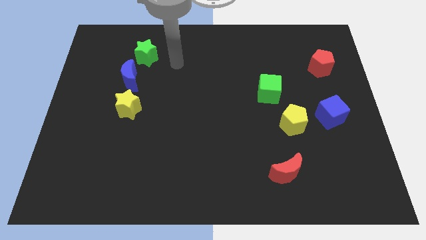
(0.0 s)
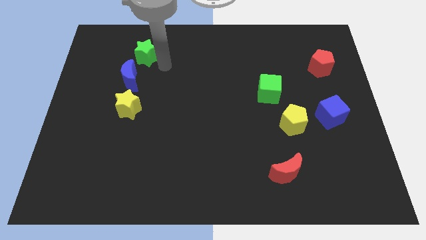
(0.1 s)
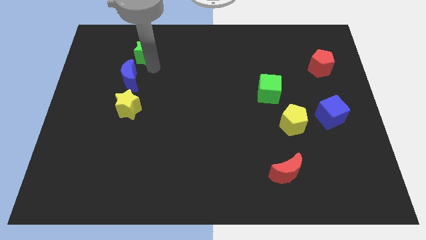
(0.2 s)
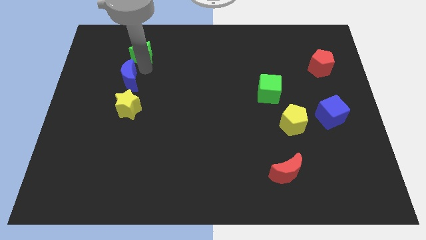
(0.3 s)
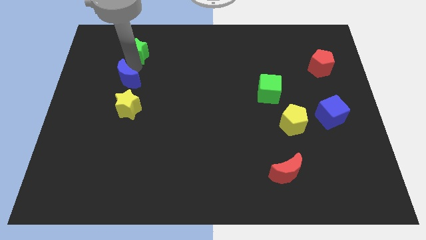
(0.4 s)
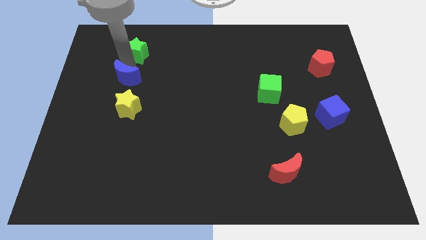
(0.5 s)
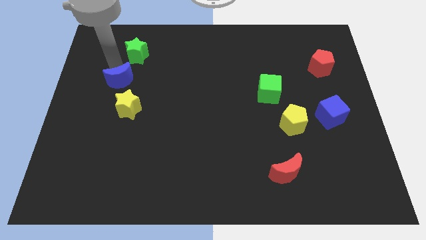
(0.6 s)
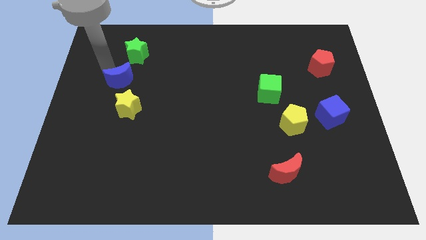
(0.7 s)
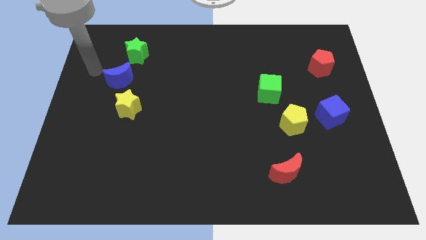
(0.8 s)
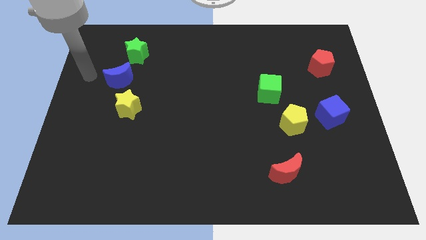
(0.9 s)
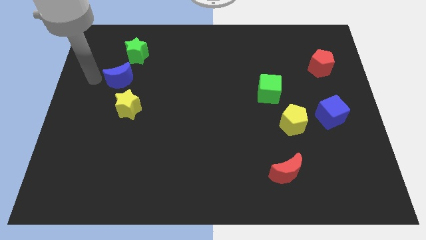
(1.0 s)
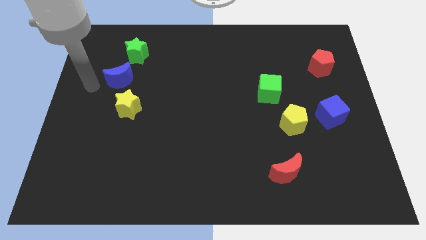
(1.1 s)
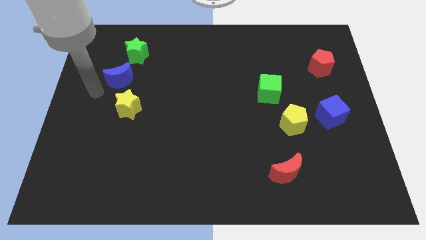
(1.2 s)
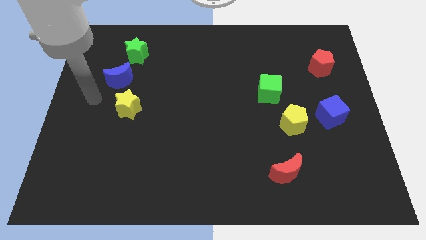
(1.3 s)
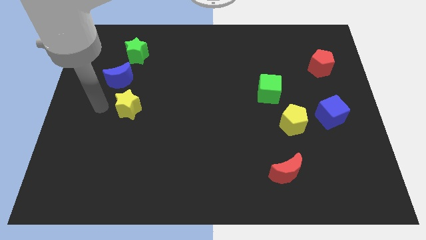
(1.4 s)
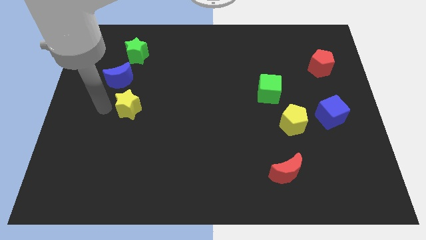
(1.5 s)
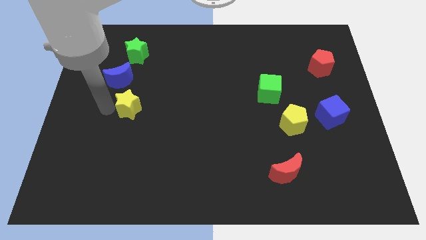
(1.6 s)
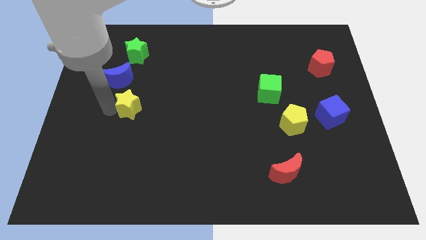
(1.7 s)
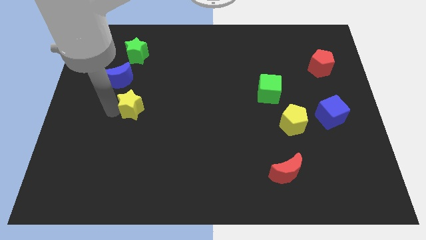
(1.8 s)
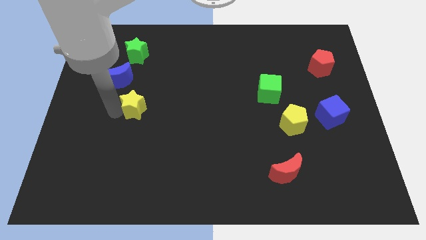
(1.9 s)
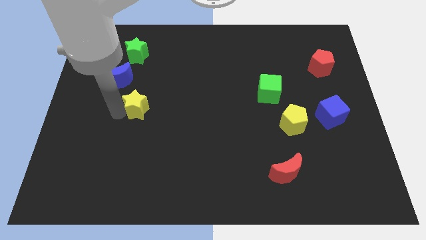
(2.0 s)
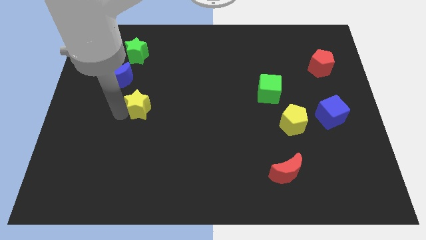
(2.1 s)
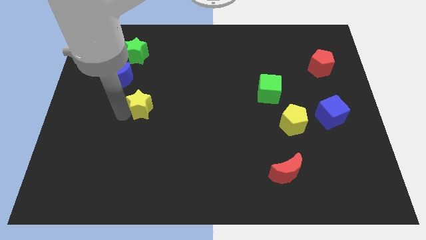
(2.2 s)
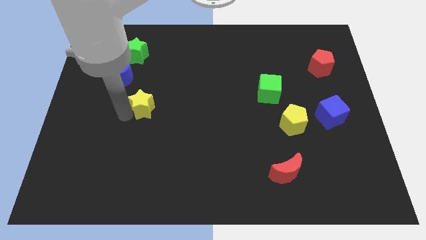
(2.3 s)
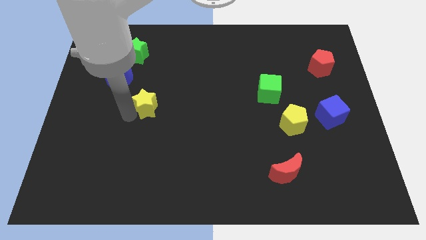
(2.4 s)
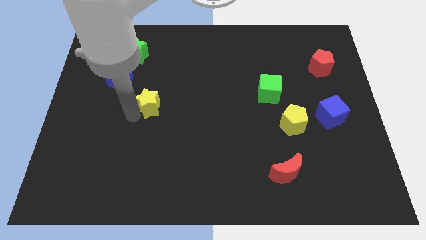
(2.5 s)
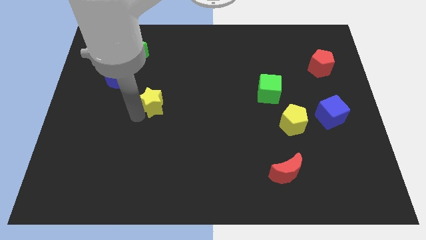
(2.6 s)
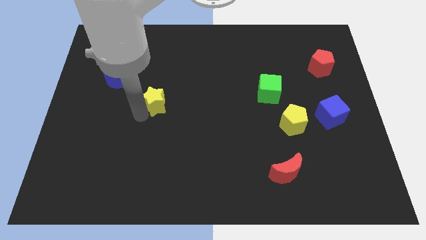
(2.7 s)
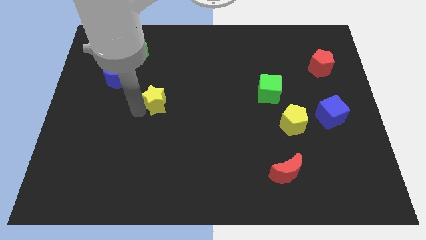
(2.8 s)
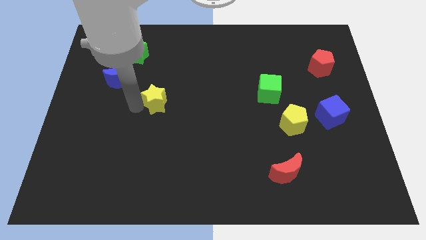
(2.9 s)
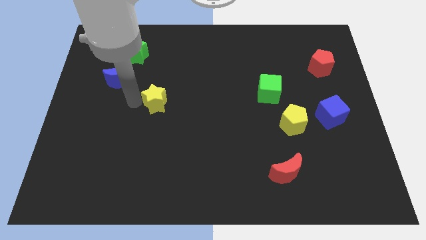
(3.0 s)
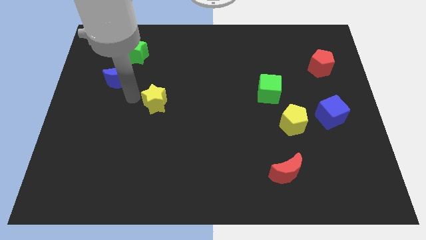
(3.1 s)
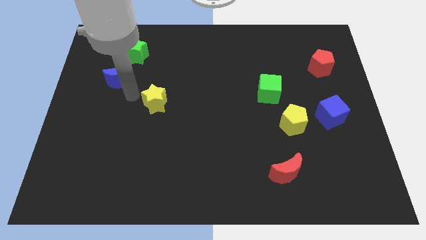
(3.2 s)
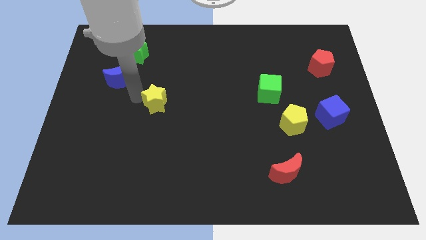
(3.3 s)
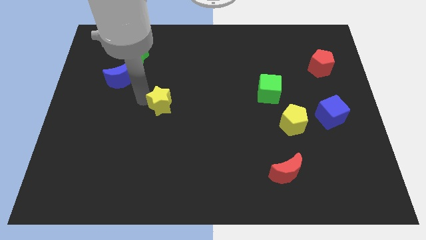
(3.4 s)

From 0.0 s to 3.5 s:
slide the yellow star a bit right

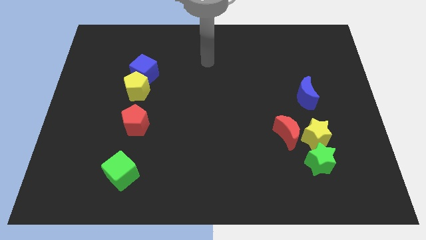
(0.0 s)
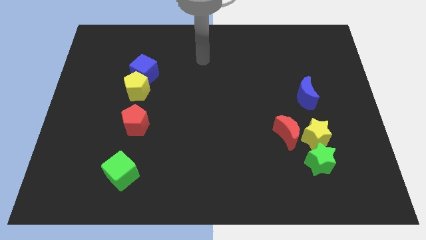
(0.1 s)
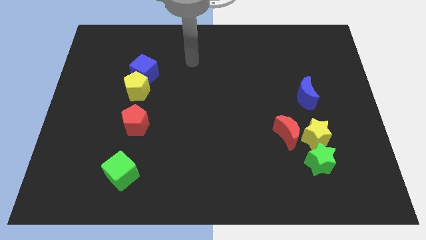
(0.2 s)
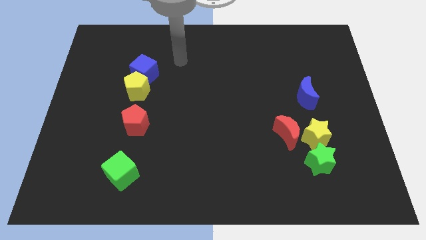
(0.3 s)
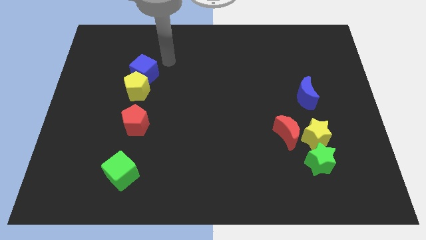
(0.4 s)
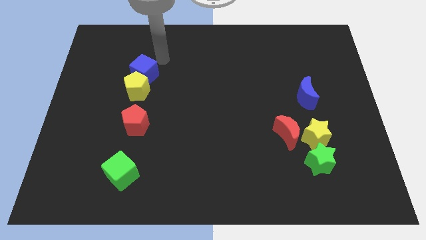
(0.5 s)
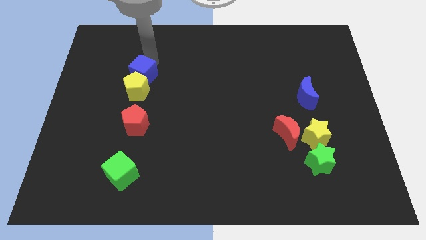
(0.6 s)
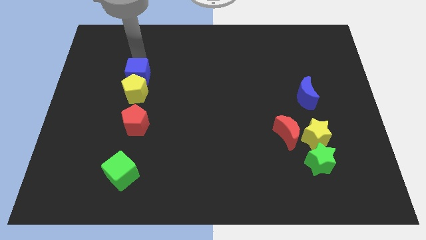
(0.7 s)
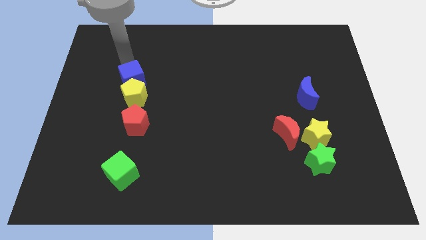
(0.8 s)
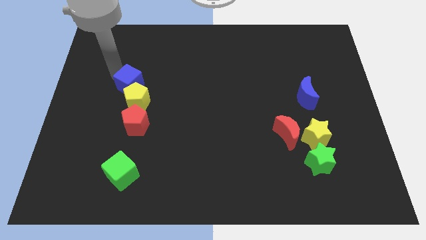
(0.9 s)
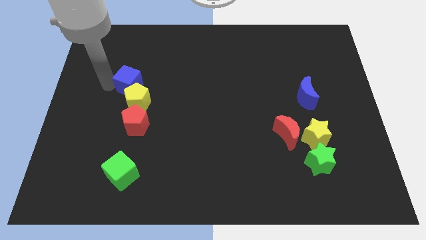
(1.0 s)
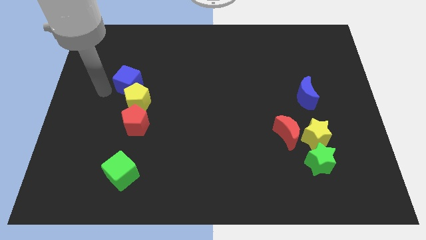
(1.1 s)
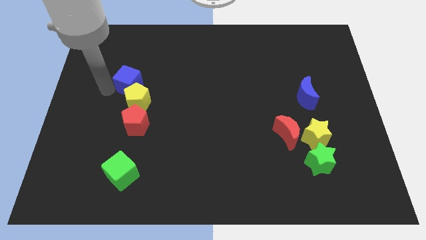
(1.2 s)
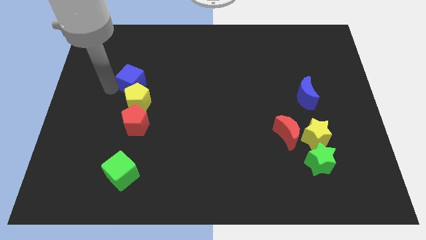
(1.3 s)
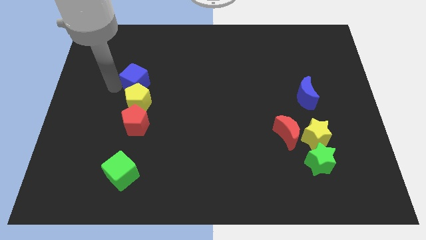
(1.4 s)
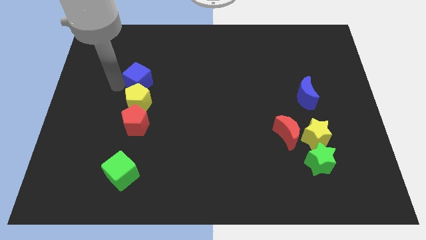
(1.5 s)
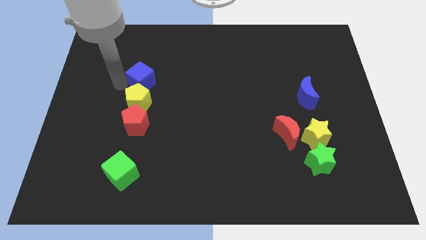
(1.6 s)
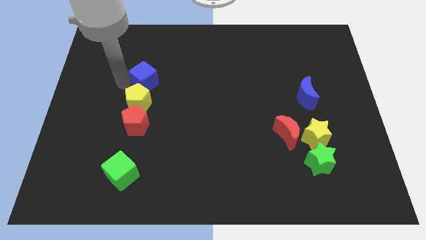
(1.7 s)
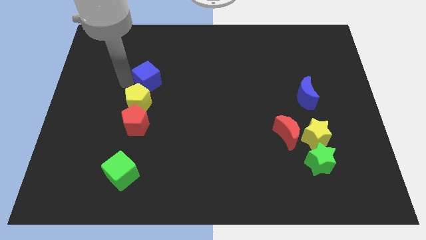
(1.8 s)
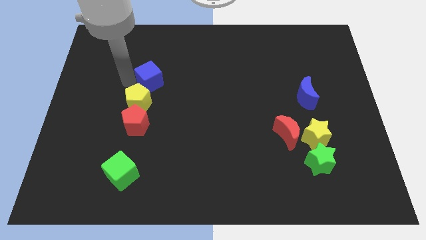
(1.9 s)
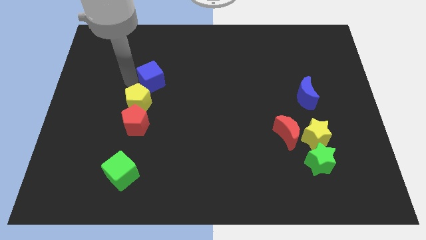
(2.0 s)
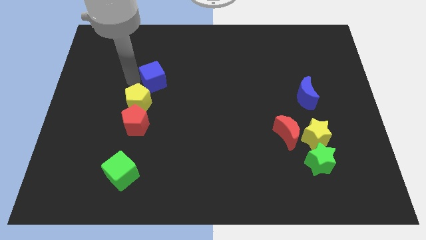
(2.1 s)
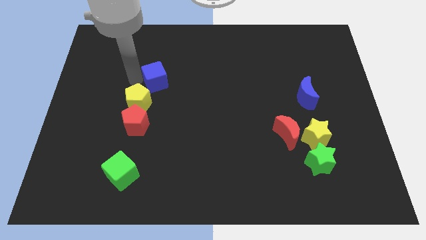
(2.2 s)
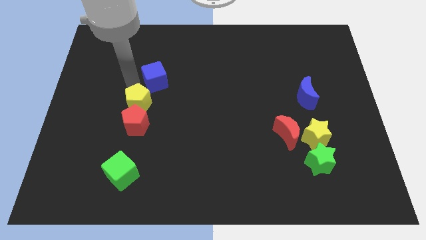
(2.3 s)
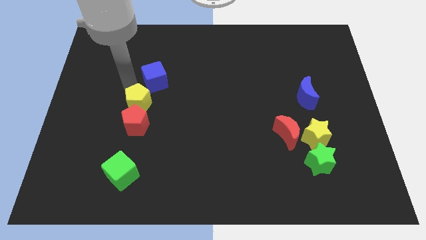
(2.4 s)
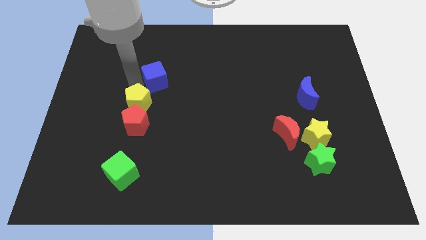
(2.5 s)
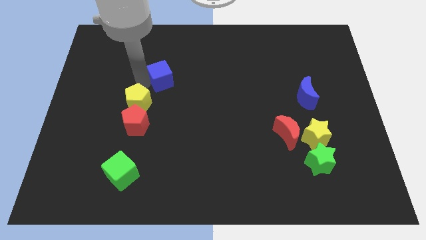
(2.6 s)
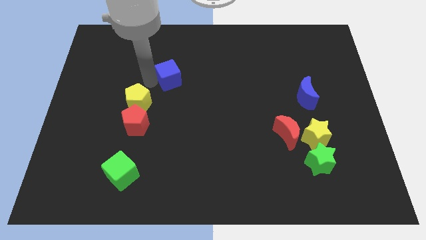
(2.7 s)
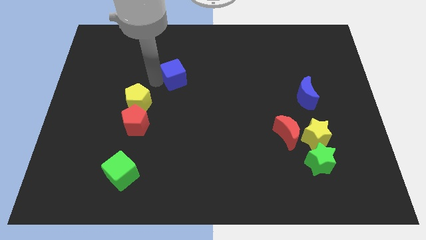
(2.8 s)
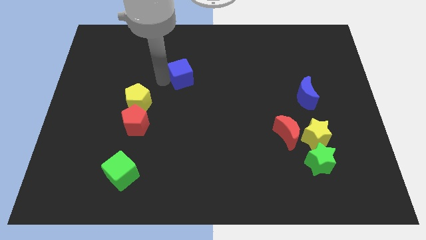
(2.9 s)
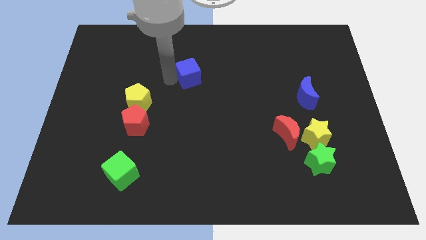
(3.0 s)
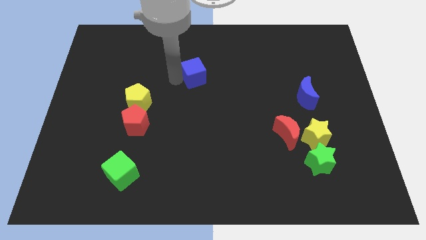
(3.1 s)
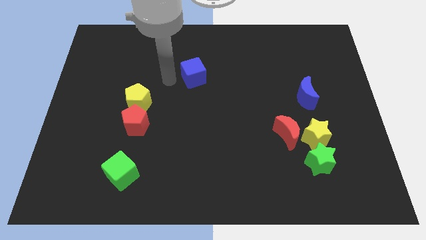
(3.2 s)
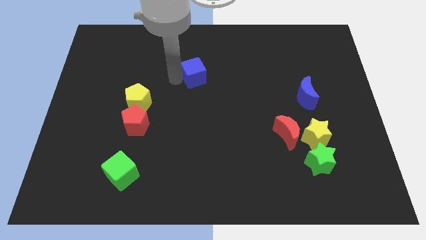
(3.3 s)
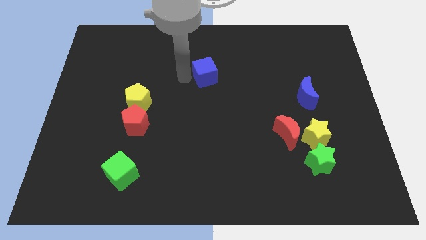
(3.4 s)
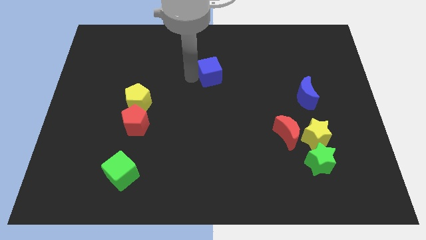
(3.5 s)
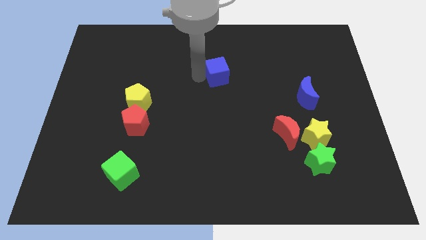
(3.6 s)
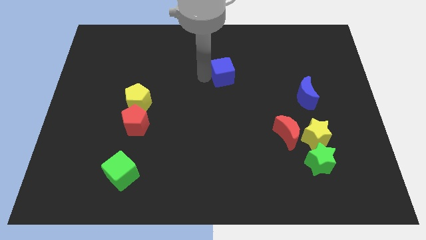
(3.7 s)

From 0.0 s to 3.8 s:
push the blue cube right

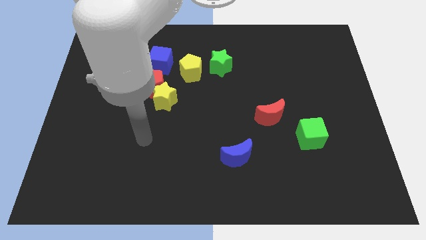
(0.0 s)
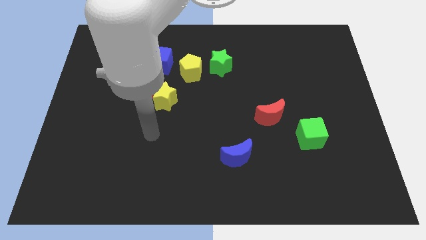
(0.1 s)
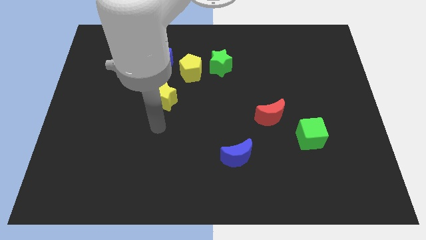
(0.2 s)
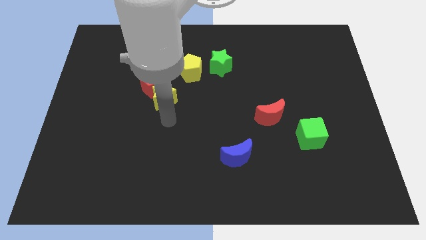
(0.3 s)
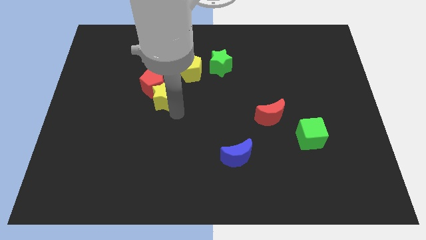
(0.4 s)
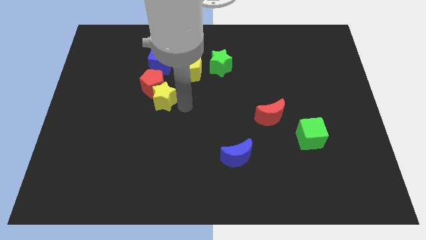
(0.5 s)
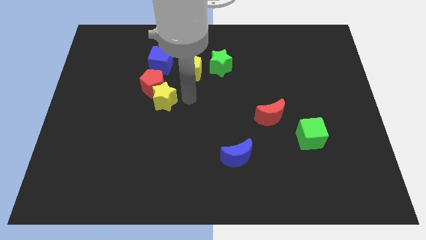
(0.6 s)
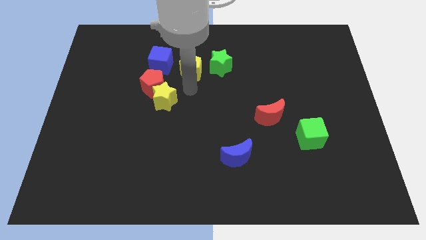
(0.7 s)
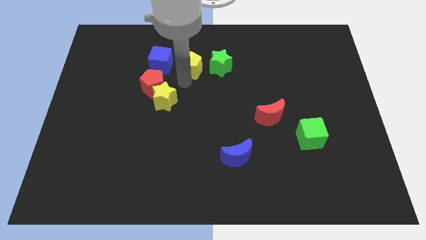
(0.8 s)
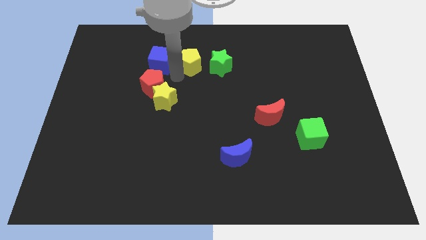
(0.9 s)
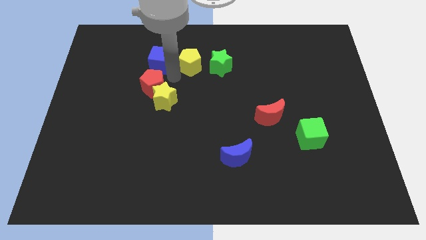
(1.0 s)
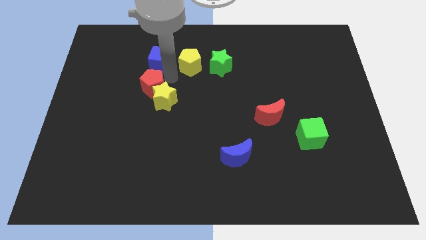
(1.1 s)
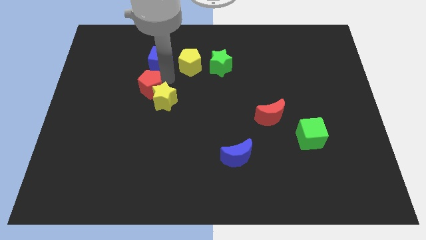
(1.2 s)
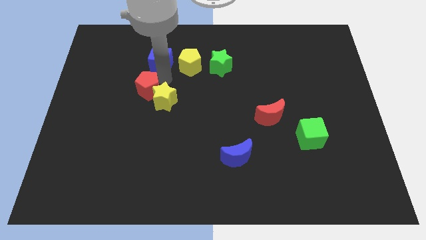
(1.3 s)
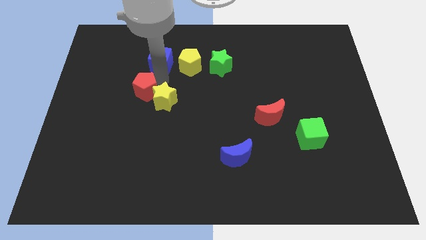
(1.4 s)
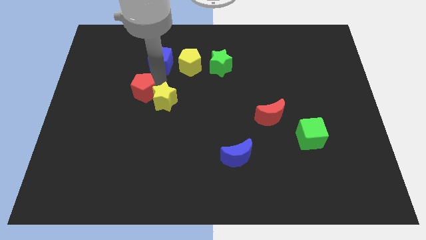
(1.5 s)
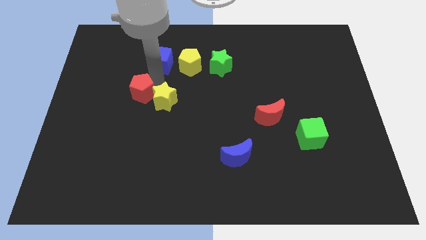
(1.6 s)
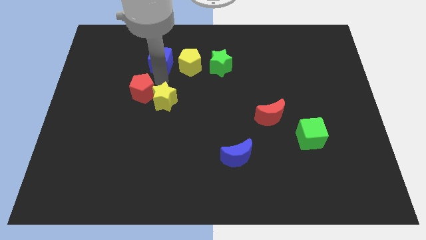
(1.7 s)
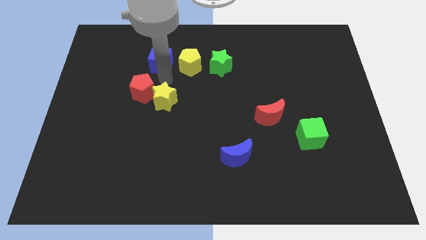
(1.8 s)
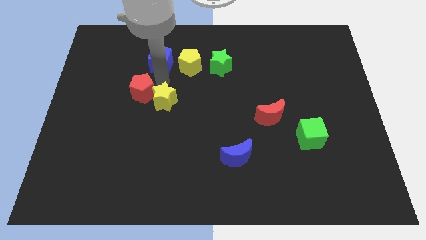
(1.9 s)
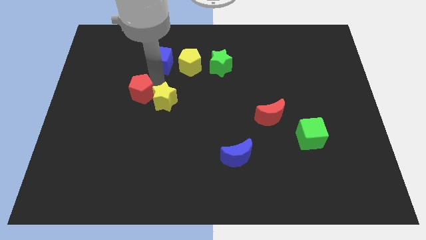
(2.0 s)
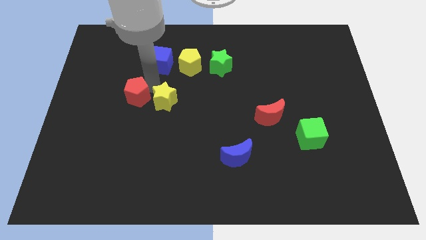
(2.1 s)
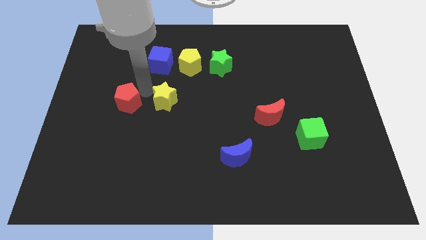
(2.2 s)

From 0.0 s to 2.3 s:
move the red pentagon downwards and left a bit
